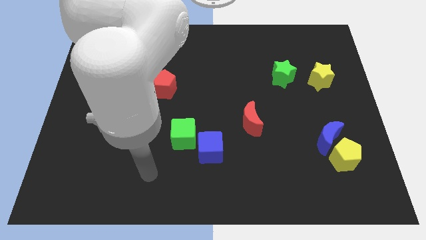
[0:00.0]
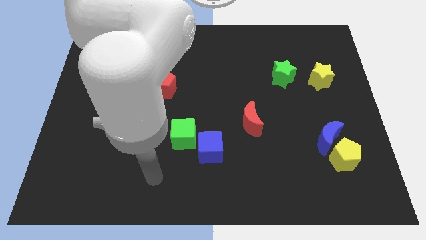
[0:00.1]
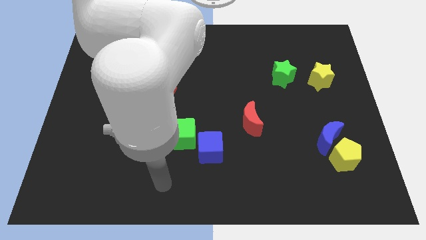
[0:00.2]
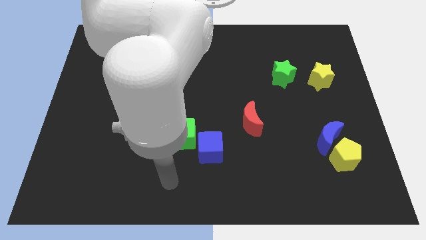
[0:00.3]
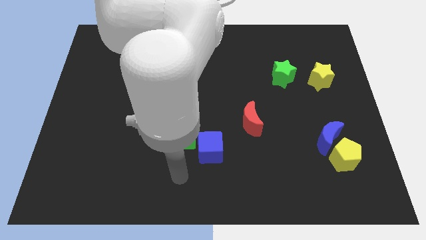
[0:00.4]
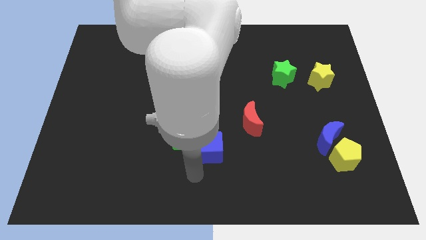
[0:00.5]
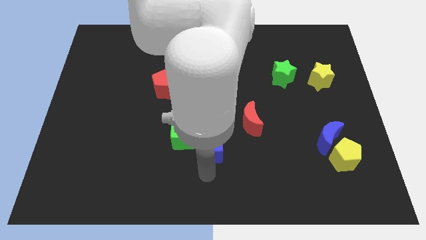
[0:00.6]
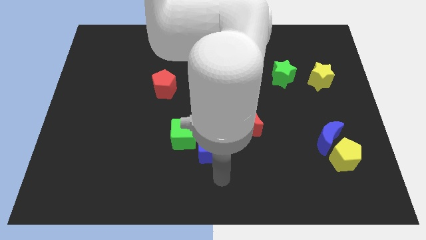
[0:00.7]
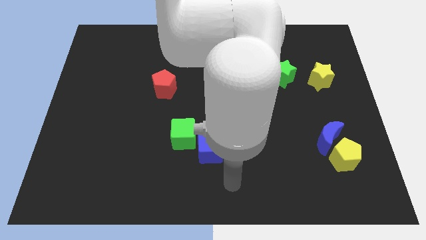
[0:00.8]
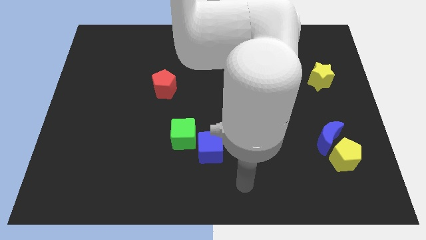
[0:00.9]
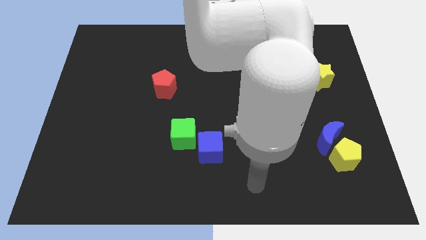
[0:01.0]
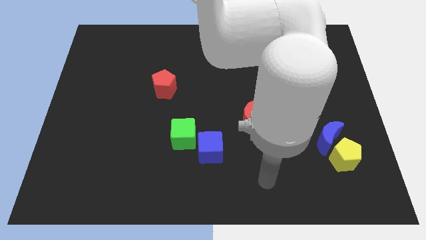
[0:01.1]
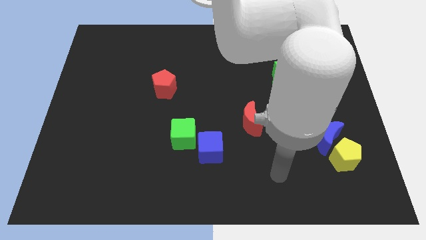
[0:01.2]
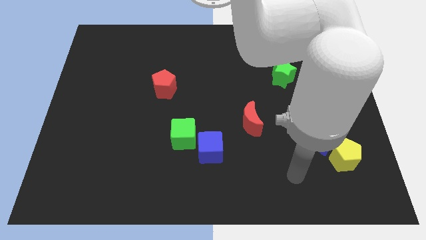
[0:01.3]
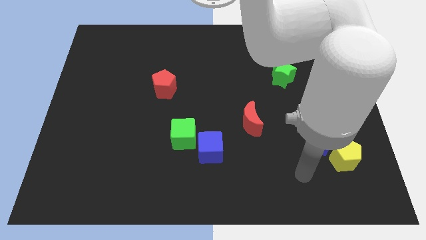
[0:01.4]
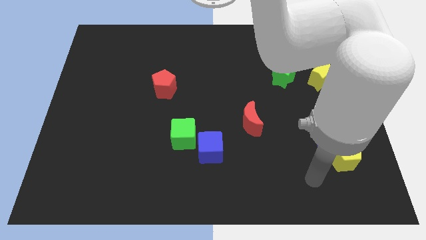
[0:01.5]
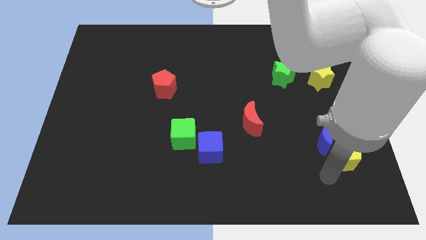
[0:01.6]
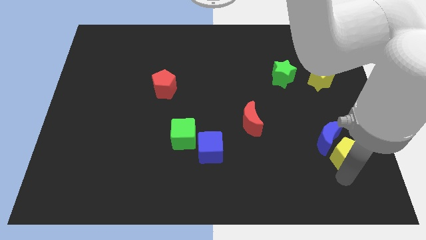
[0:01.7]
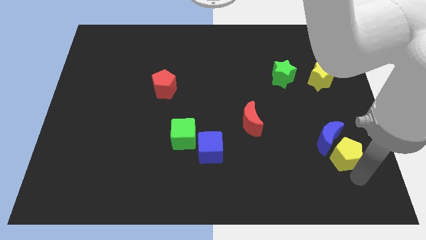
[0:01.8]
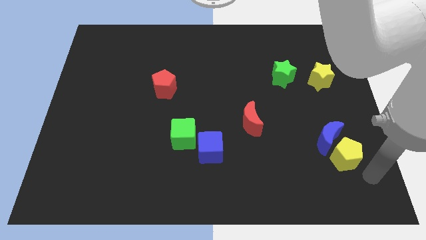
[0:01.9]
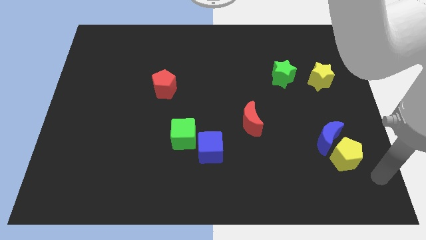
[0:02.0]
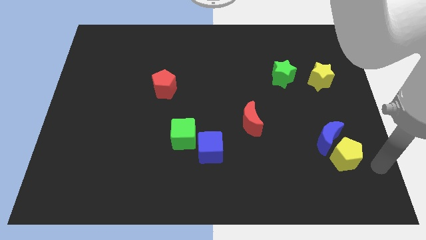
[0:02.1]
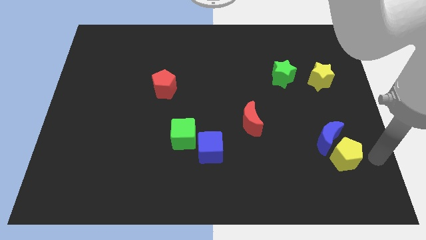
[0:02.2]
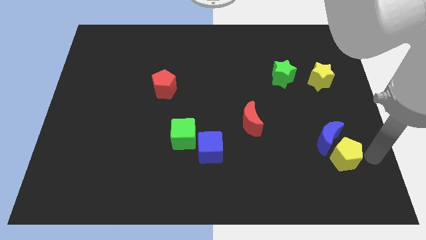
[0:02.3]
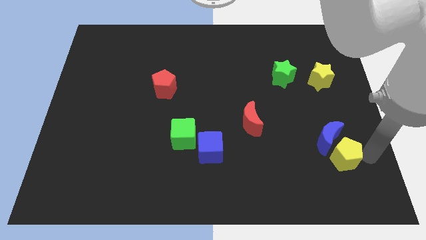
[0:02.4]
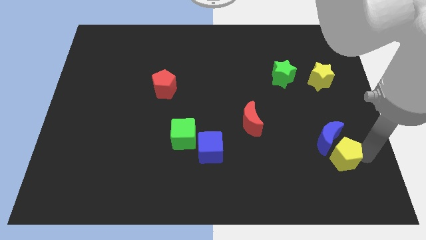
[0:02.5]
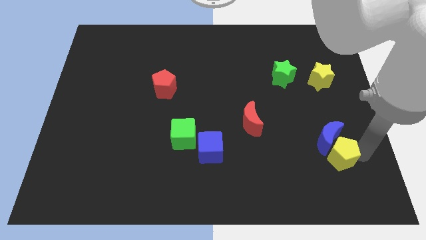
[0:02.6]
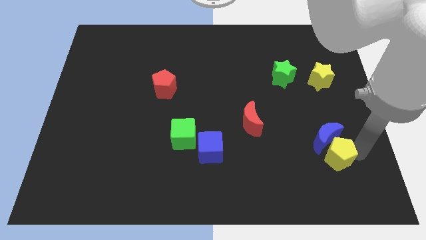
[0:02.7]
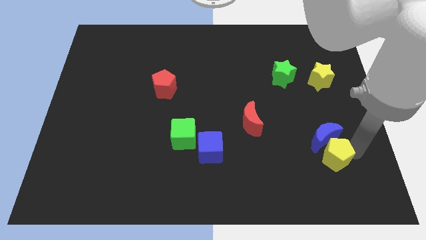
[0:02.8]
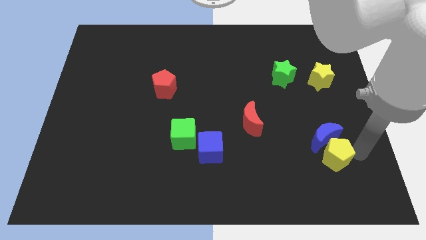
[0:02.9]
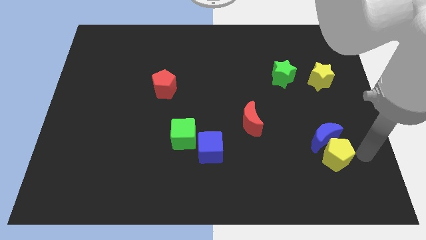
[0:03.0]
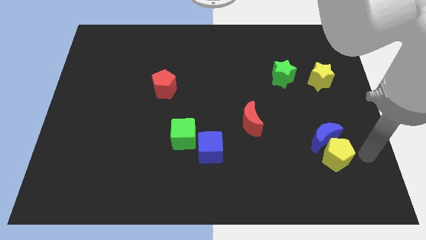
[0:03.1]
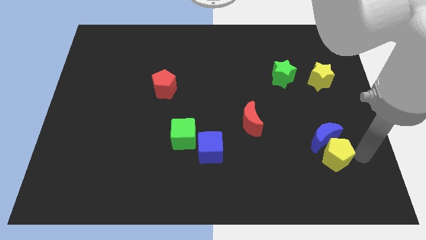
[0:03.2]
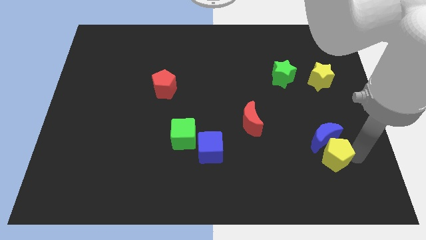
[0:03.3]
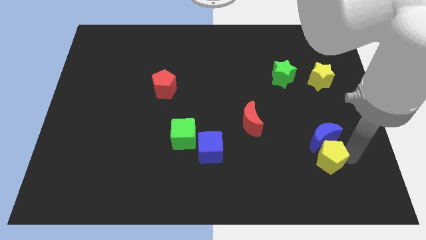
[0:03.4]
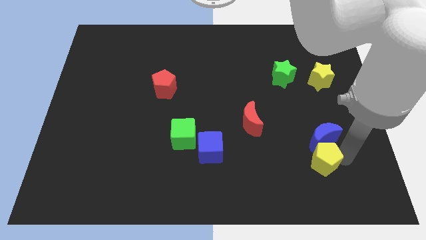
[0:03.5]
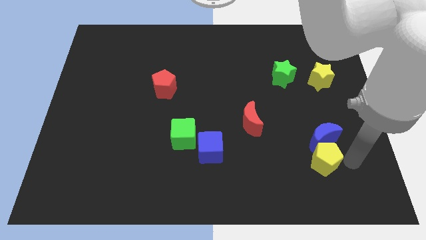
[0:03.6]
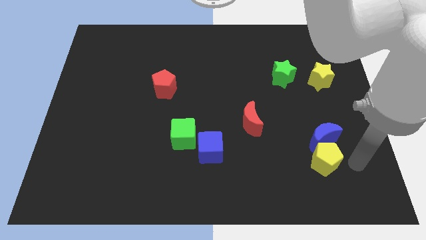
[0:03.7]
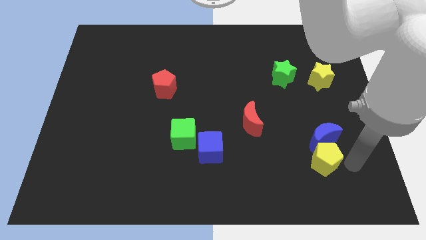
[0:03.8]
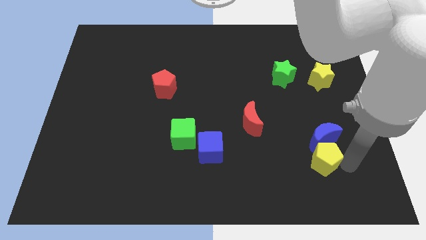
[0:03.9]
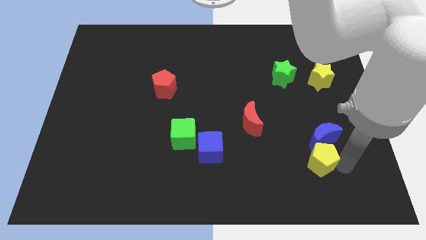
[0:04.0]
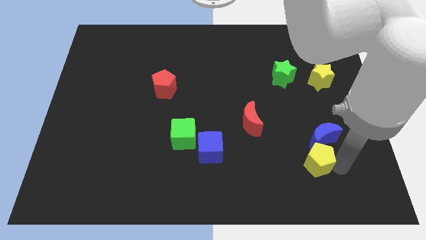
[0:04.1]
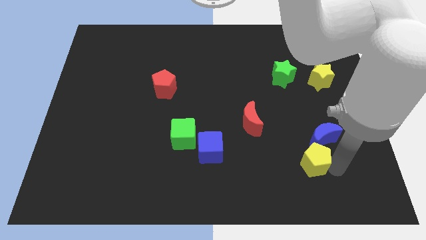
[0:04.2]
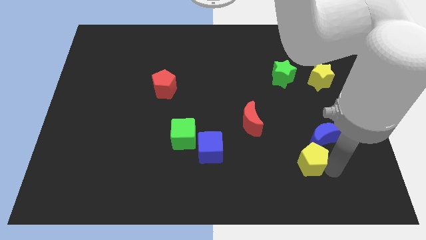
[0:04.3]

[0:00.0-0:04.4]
move the yellow pentagon a little to the left

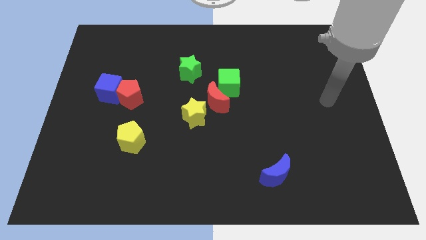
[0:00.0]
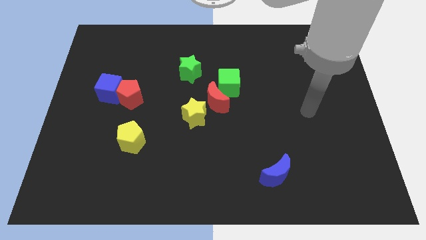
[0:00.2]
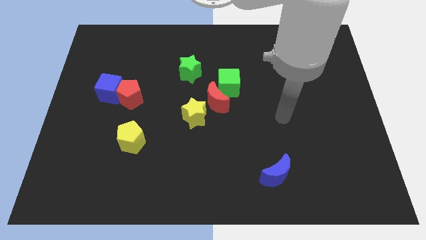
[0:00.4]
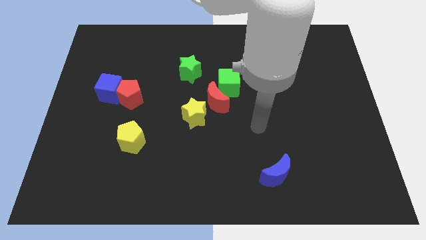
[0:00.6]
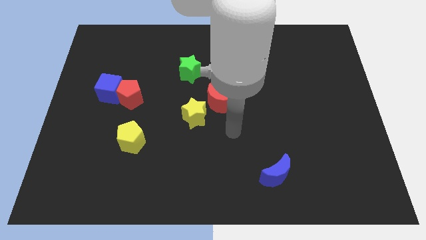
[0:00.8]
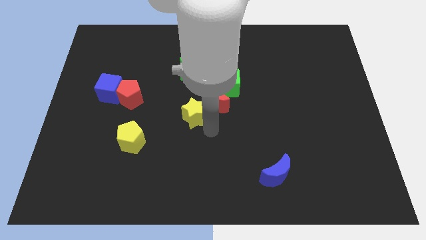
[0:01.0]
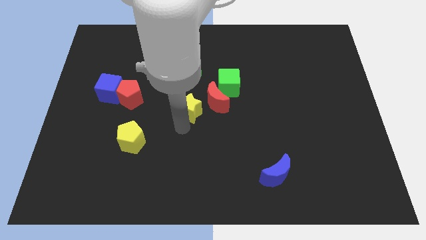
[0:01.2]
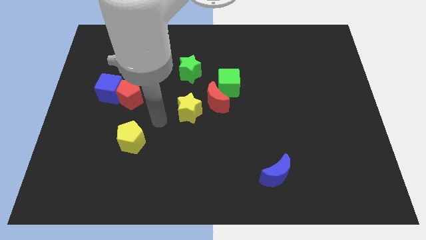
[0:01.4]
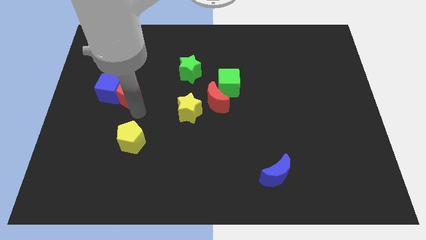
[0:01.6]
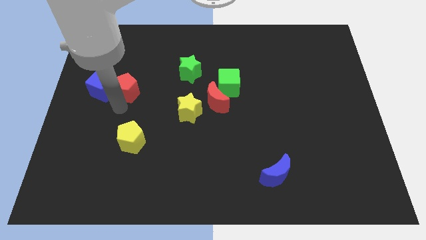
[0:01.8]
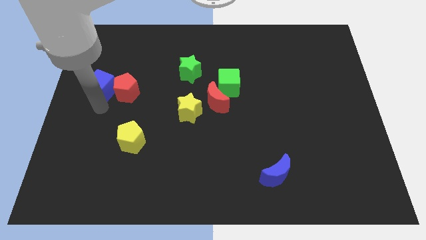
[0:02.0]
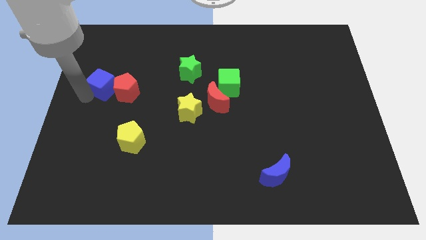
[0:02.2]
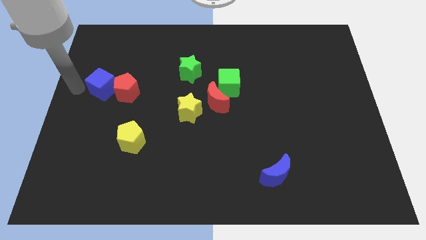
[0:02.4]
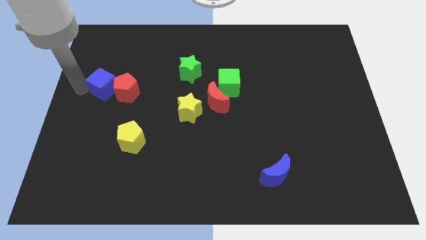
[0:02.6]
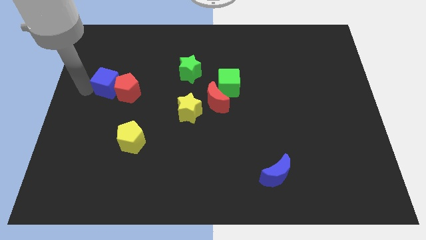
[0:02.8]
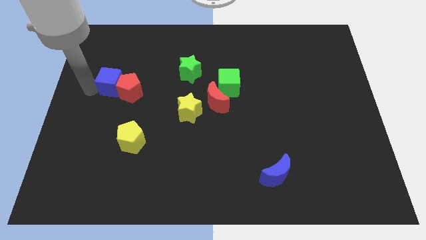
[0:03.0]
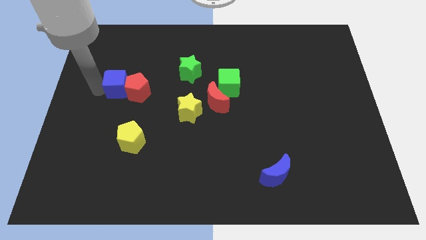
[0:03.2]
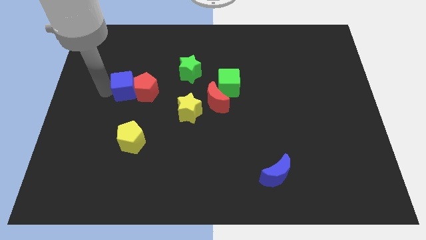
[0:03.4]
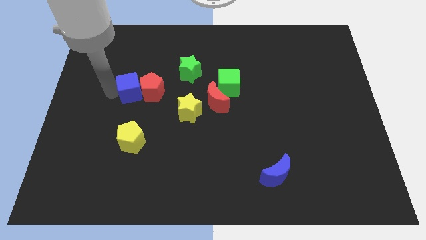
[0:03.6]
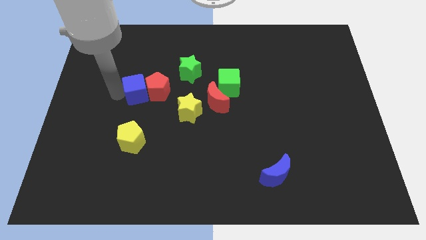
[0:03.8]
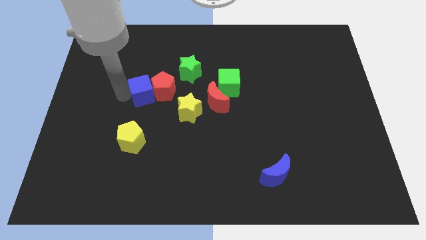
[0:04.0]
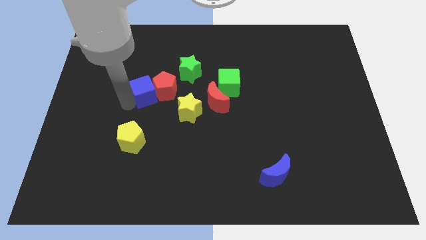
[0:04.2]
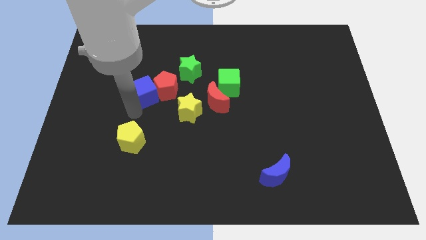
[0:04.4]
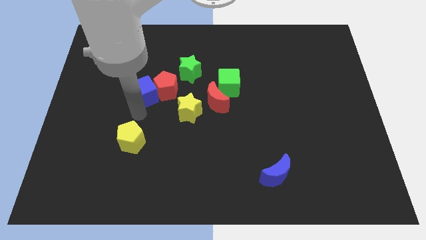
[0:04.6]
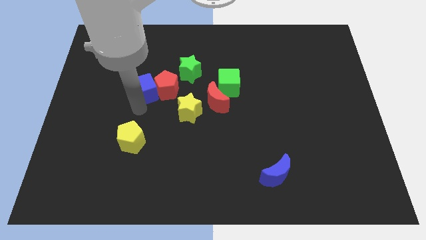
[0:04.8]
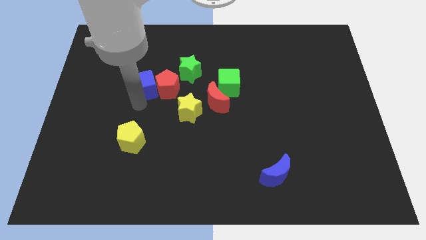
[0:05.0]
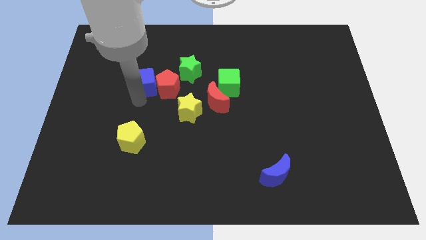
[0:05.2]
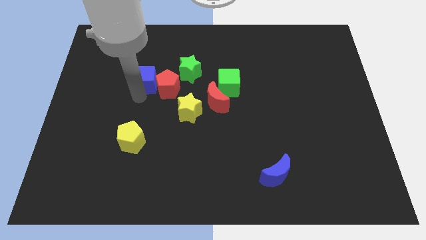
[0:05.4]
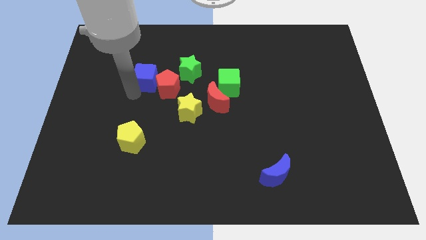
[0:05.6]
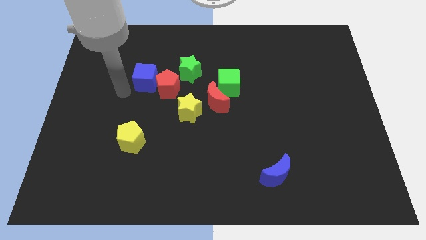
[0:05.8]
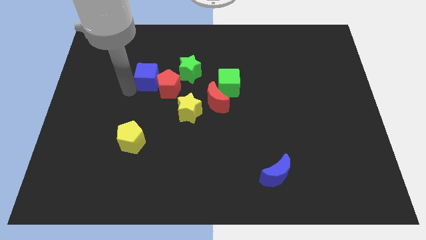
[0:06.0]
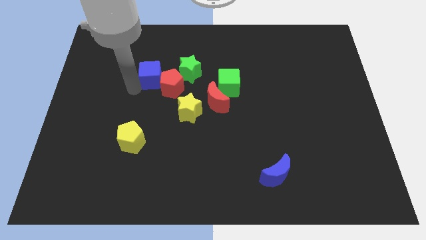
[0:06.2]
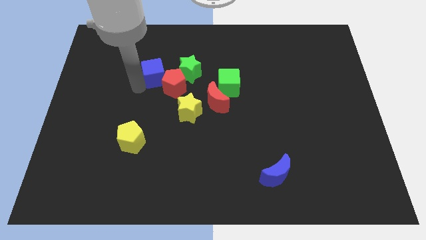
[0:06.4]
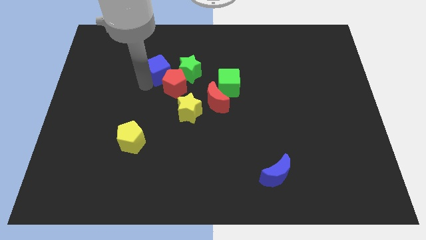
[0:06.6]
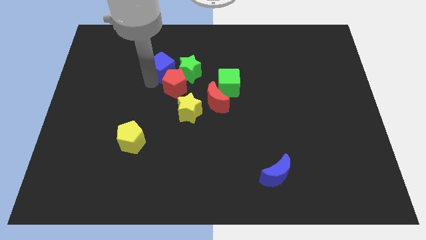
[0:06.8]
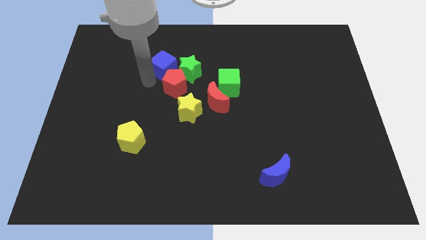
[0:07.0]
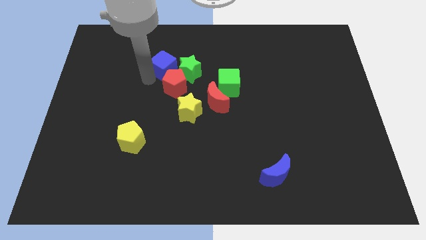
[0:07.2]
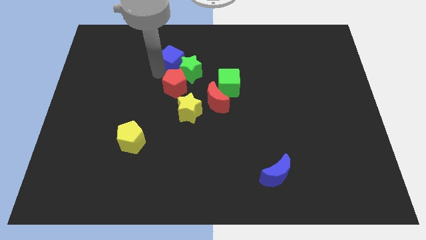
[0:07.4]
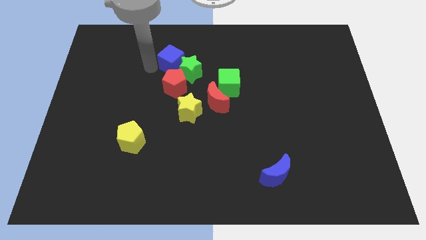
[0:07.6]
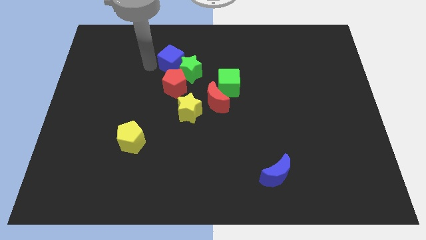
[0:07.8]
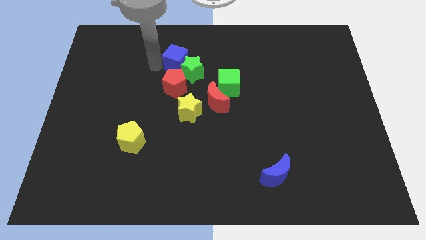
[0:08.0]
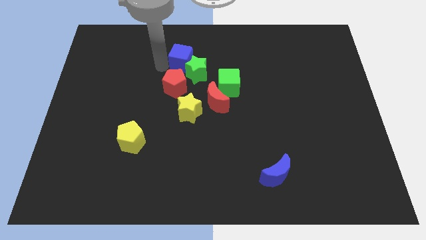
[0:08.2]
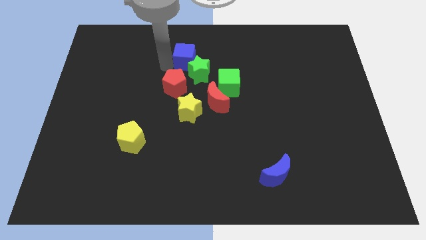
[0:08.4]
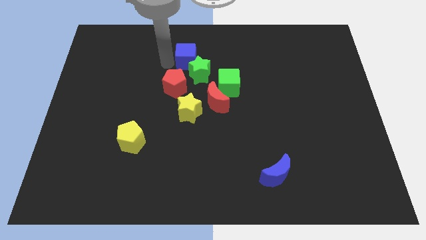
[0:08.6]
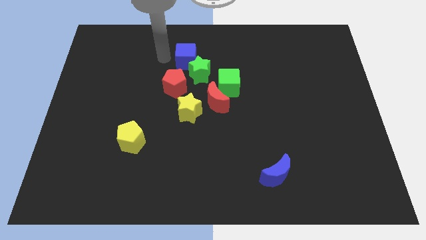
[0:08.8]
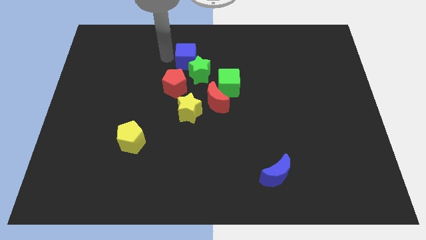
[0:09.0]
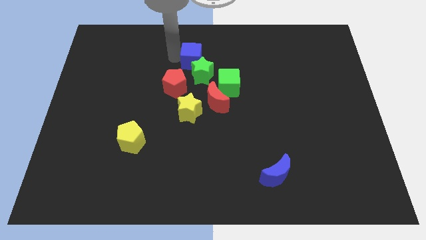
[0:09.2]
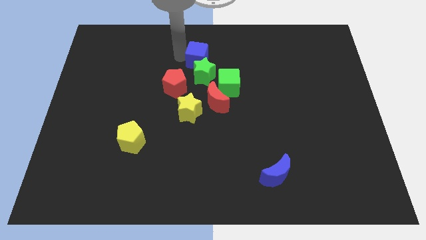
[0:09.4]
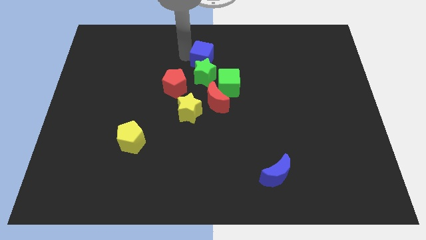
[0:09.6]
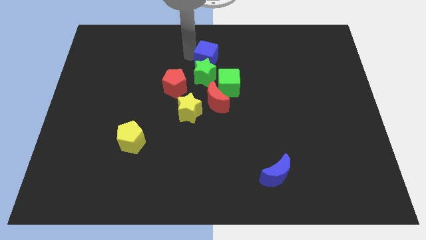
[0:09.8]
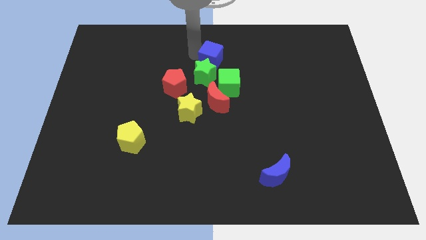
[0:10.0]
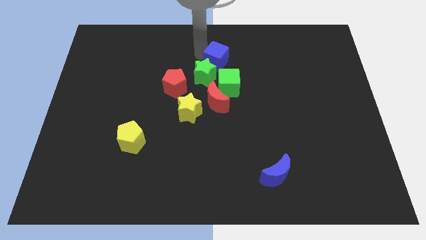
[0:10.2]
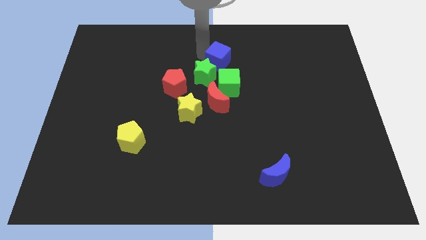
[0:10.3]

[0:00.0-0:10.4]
slide the blue cube right
